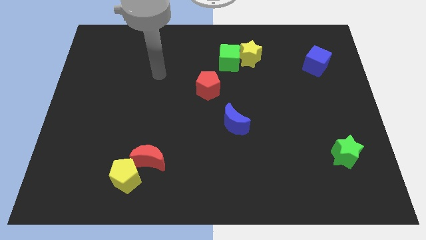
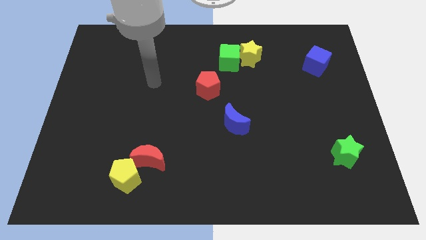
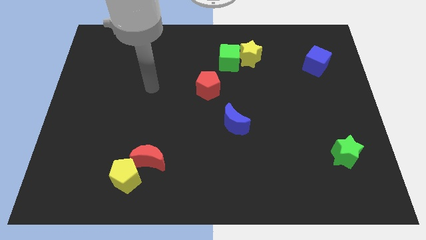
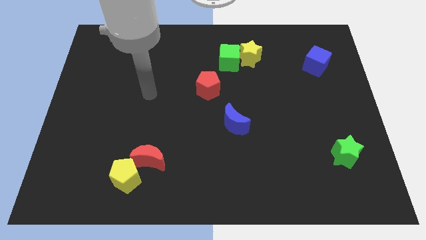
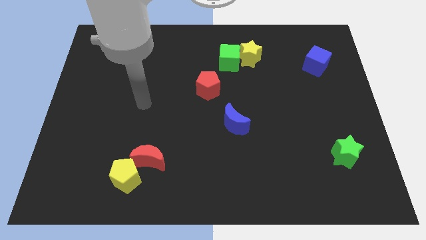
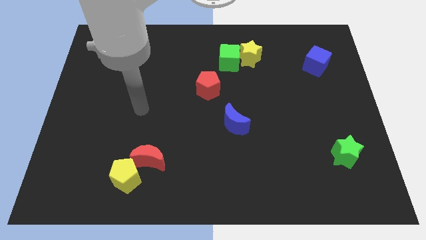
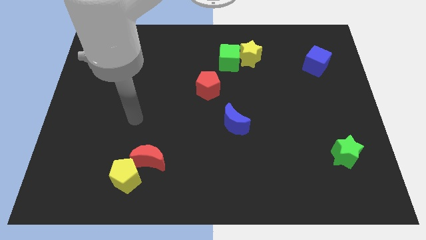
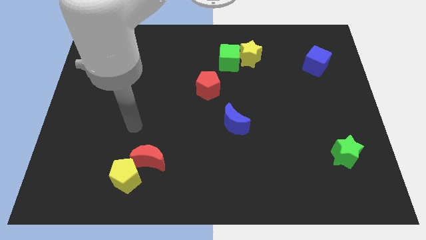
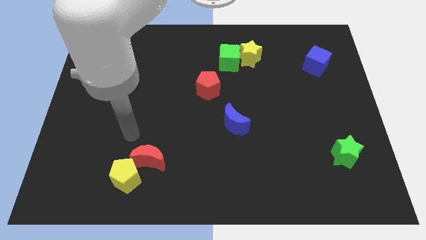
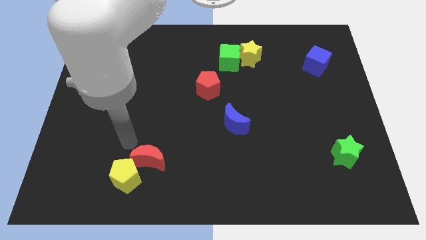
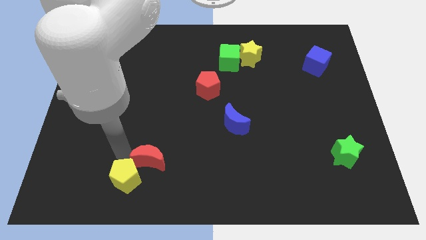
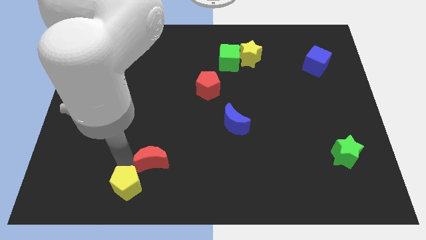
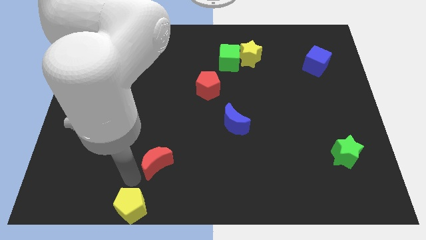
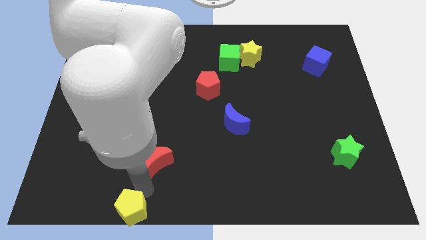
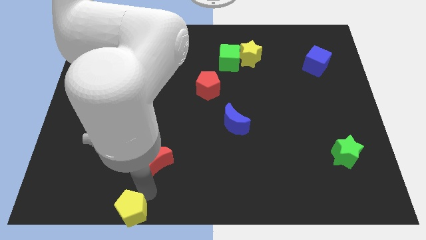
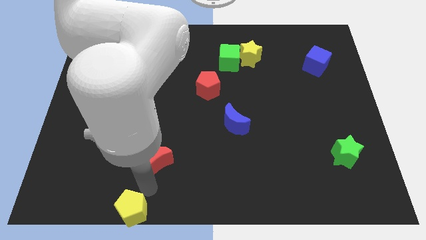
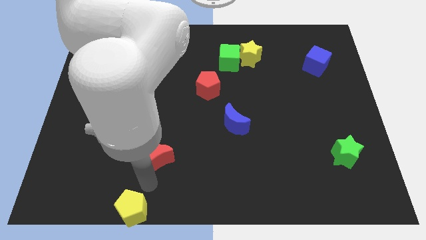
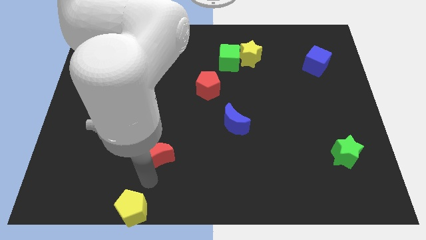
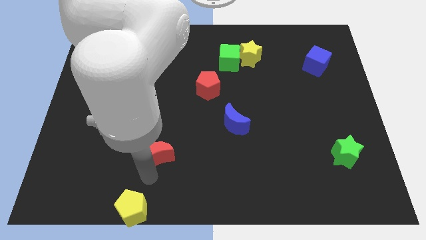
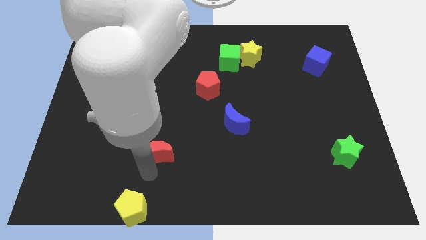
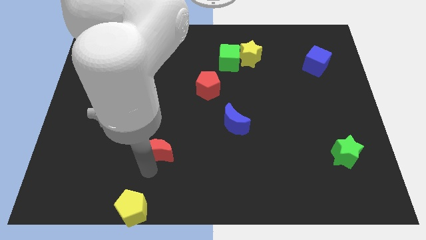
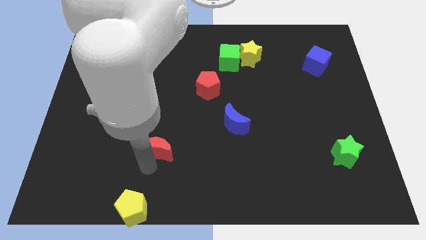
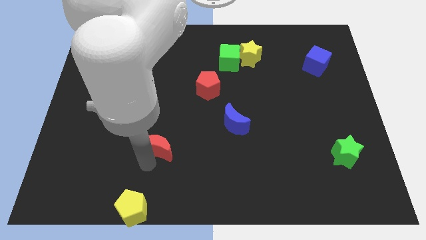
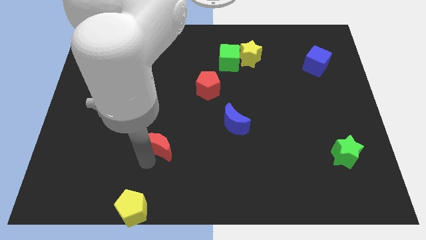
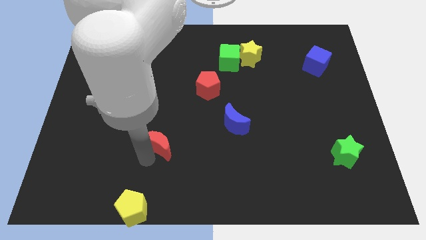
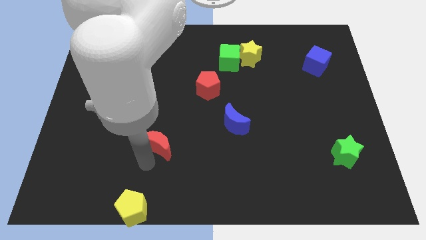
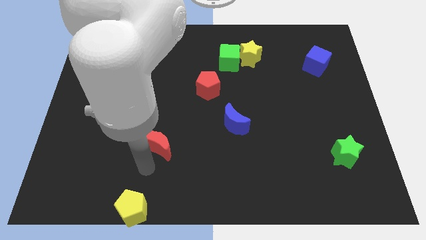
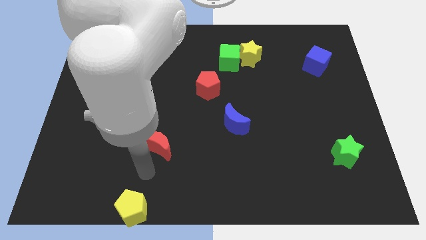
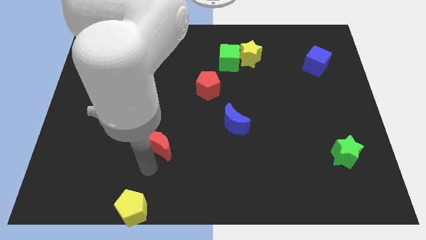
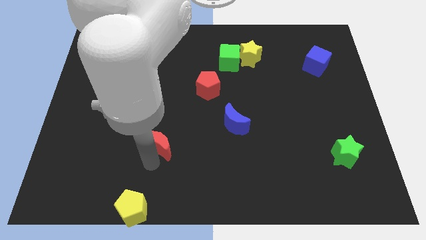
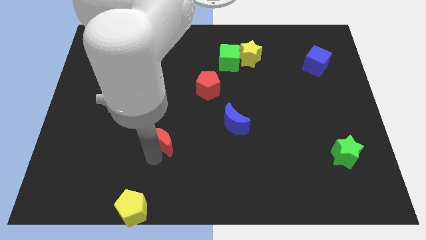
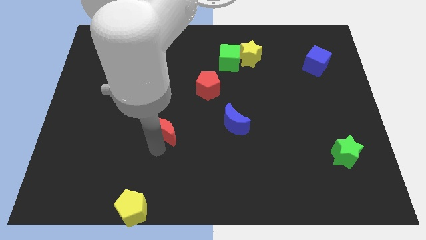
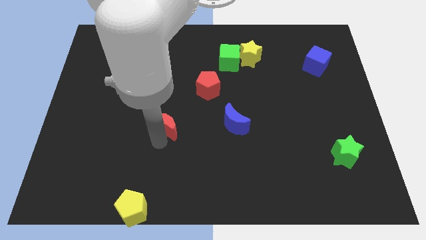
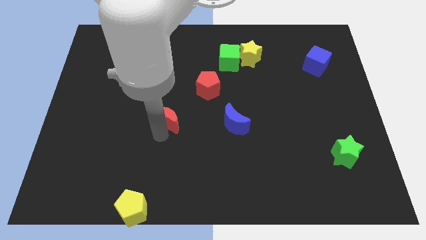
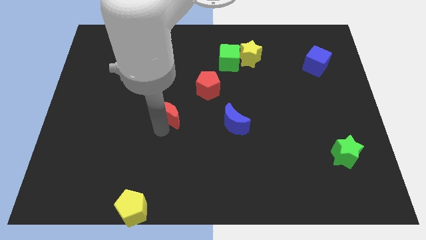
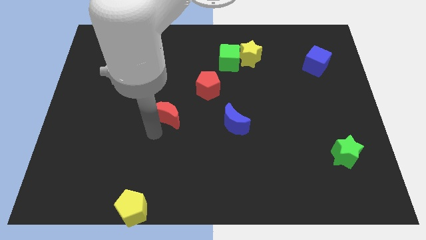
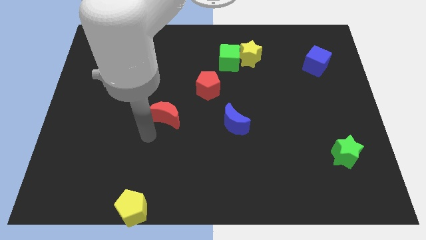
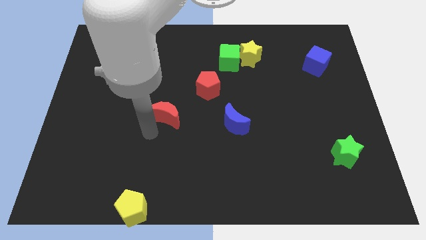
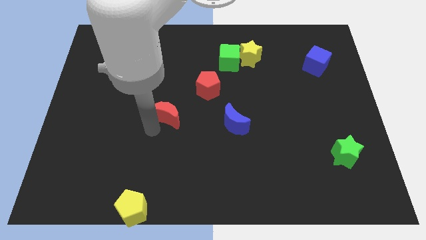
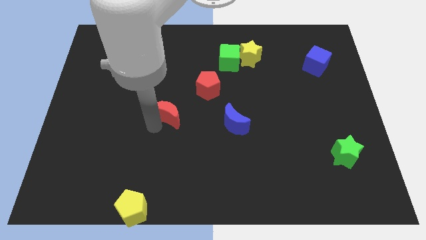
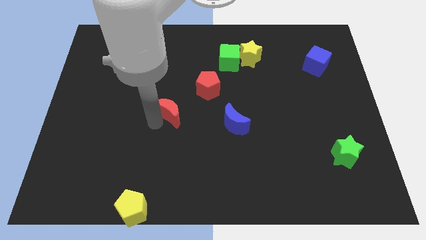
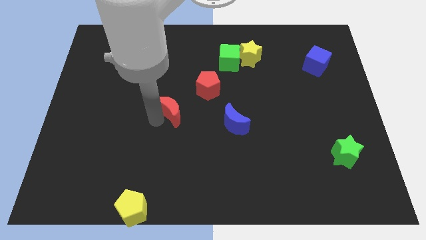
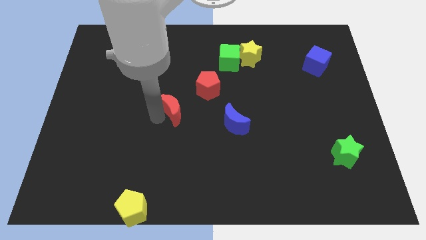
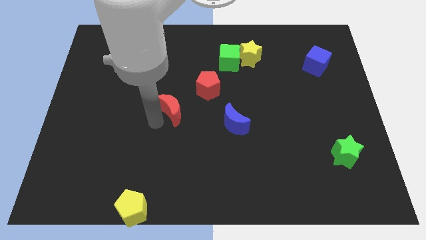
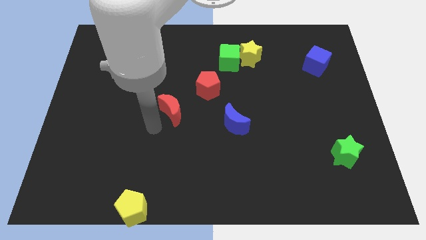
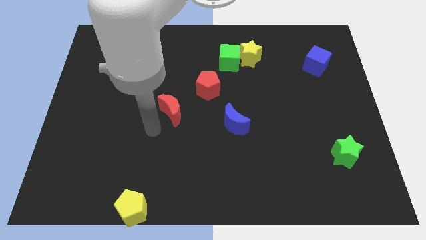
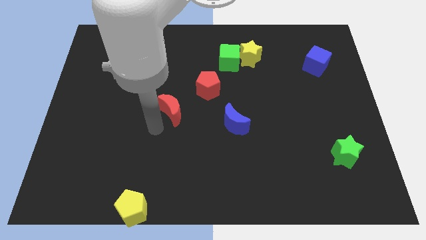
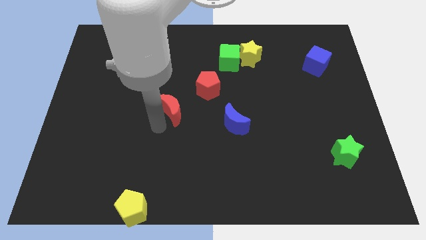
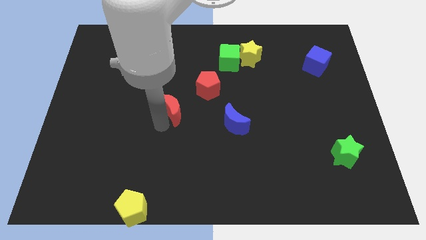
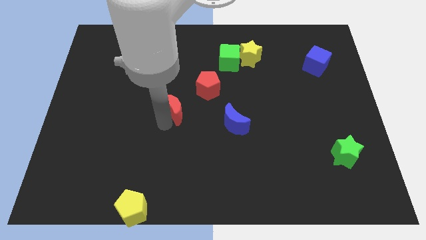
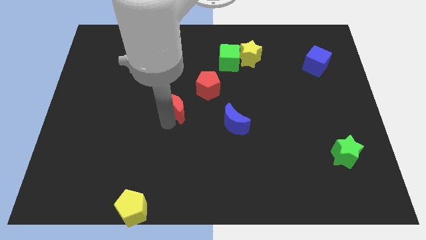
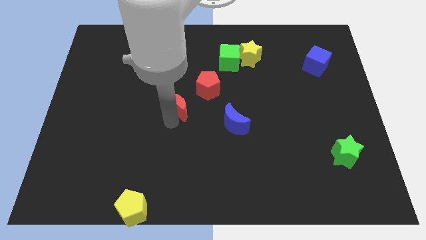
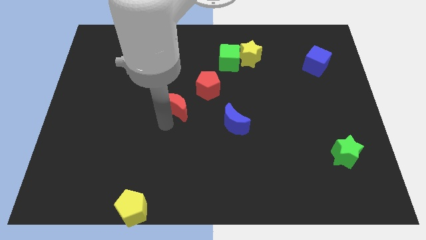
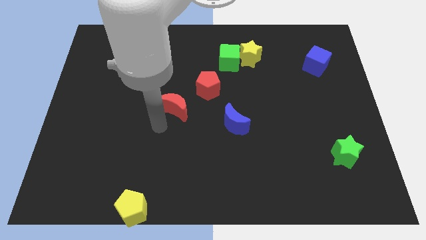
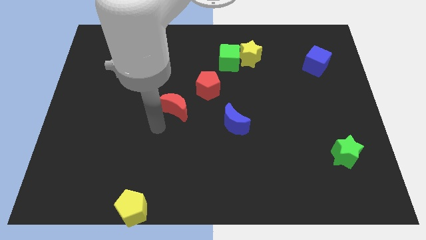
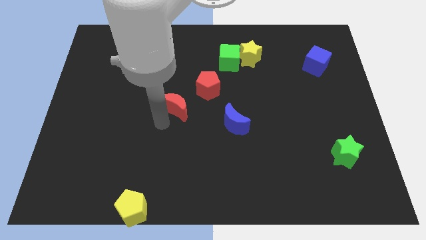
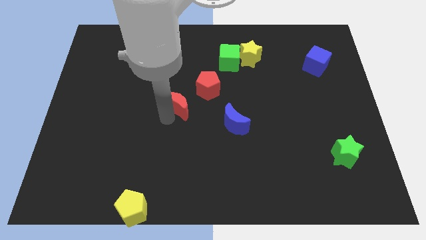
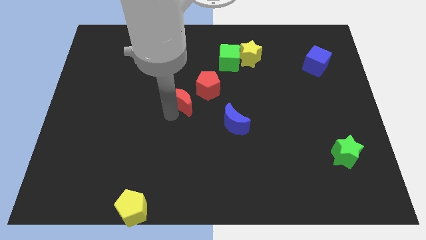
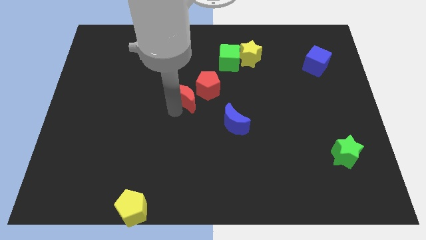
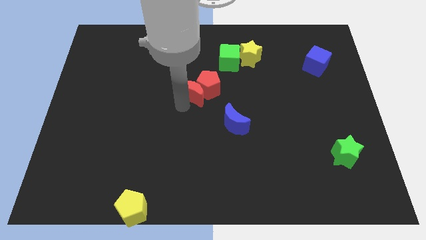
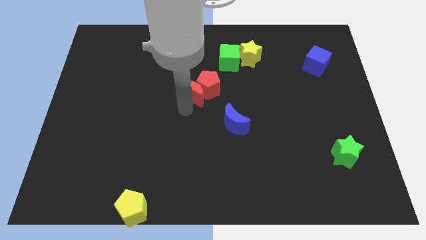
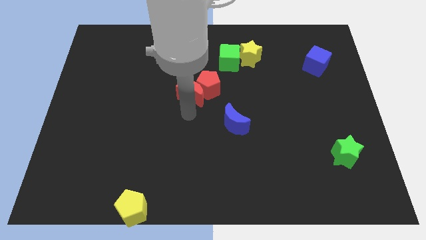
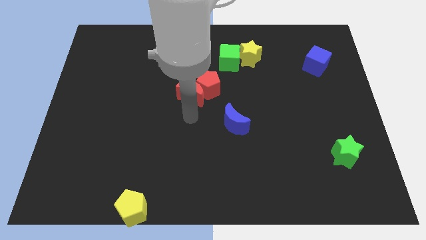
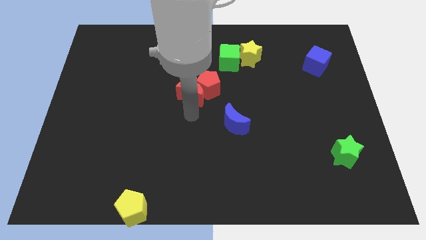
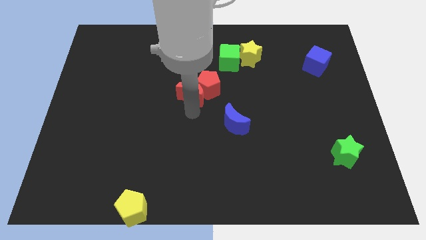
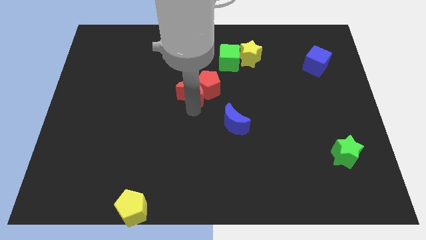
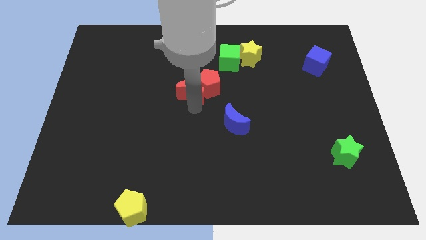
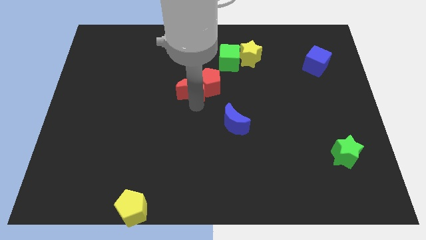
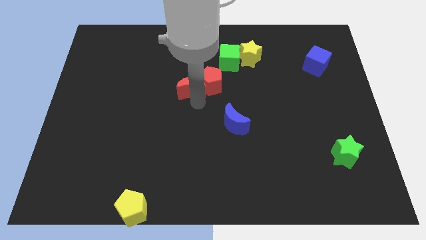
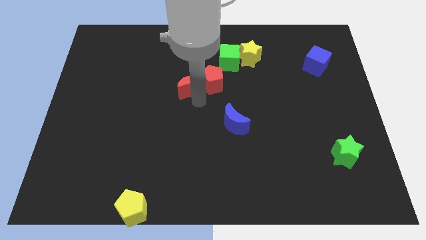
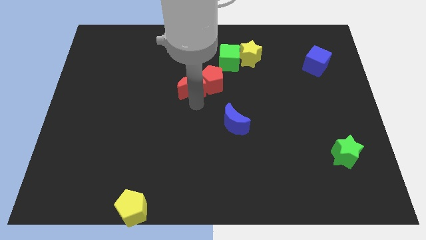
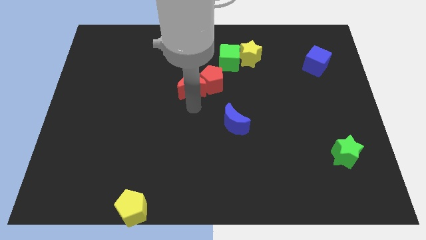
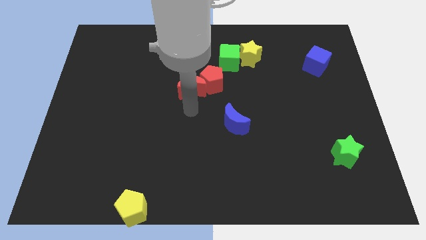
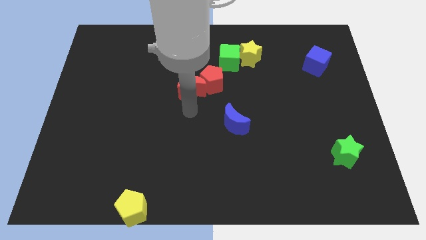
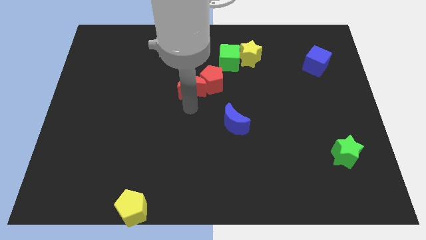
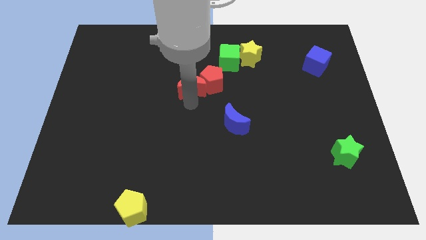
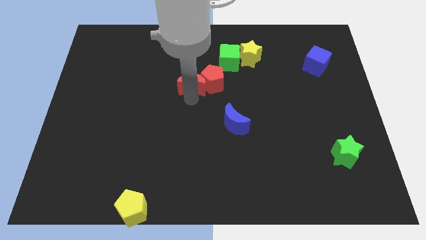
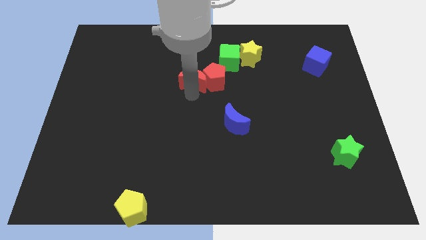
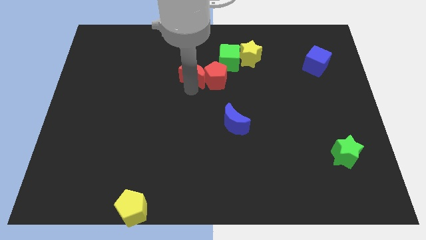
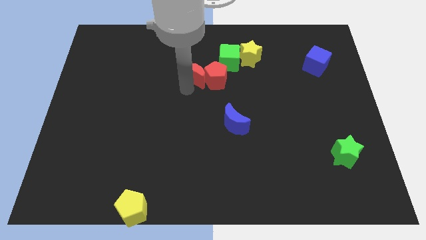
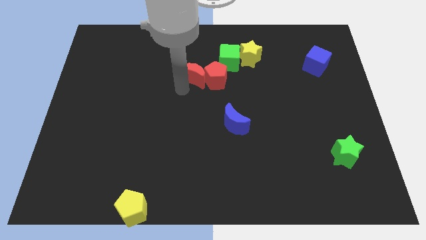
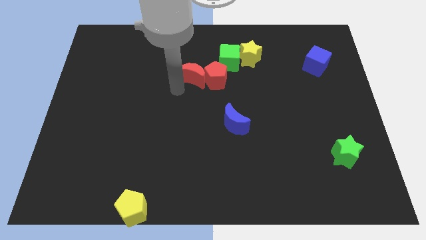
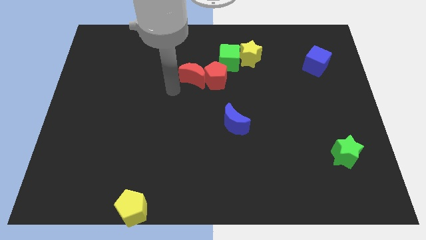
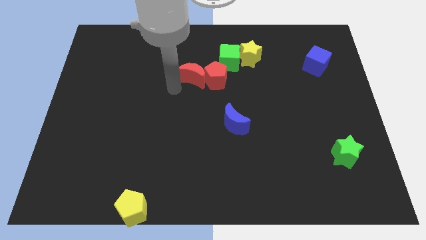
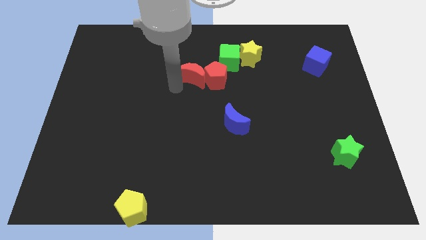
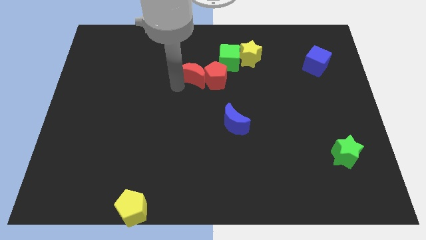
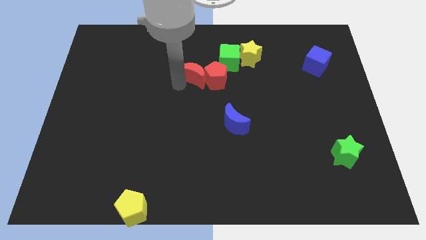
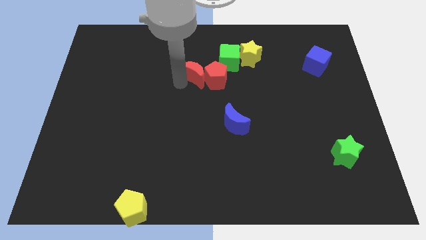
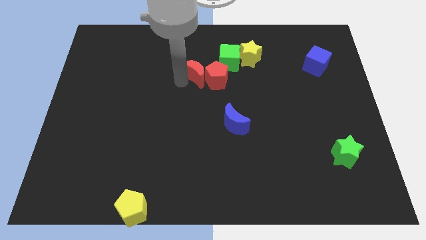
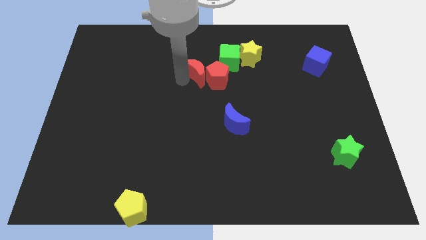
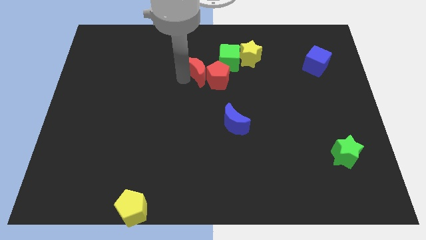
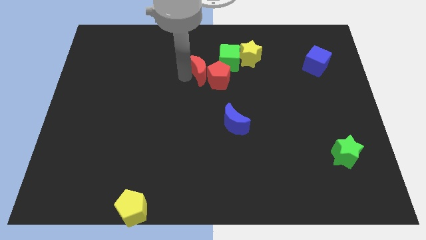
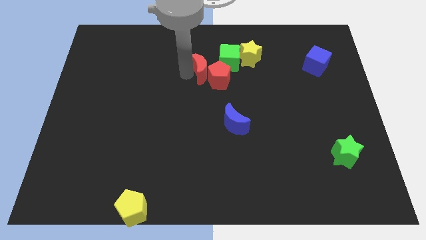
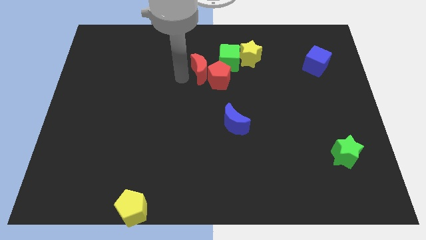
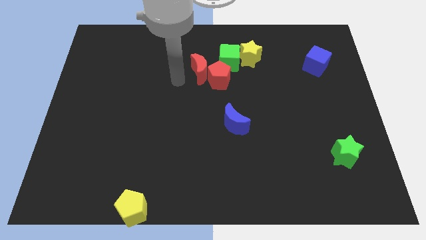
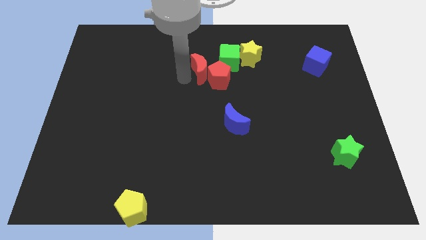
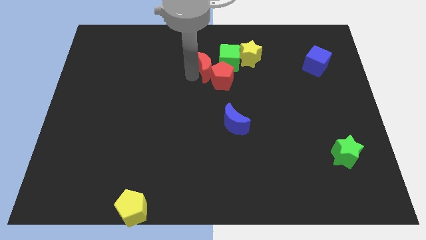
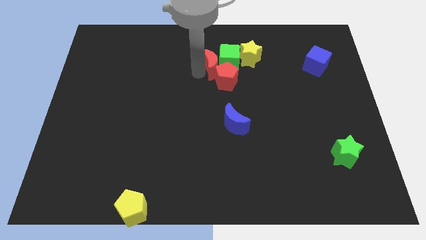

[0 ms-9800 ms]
move the red moon close to the green cube
